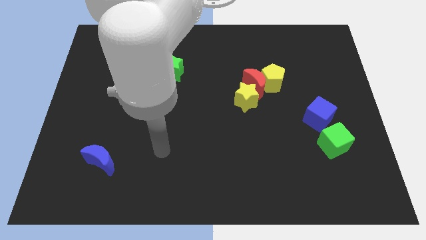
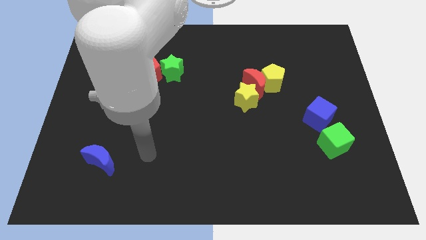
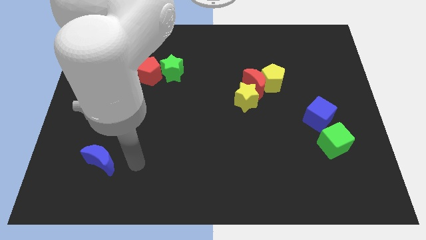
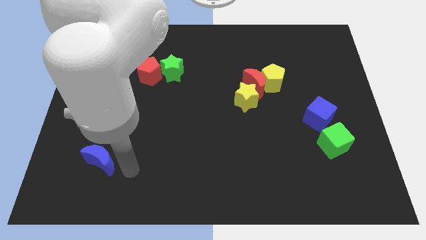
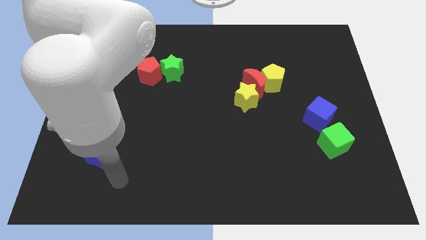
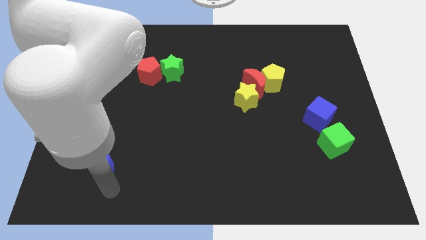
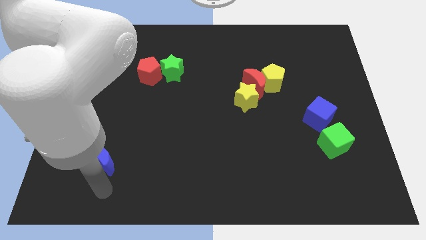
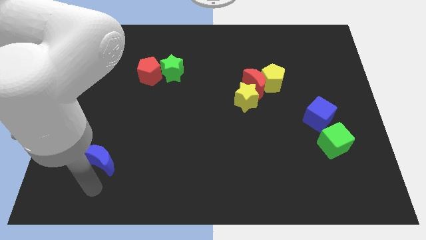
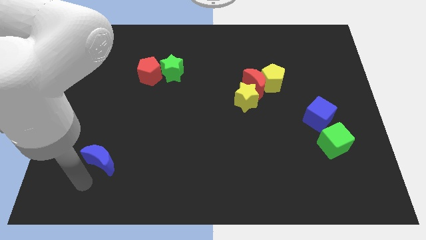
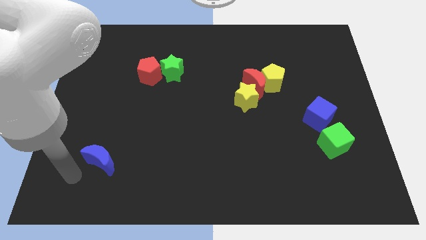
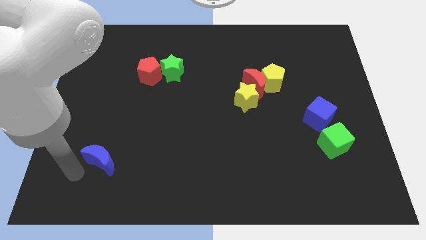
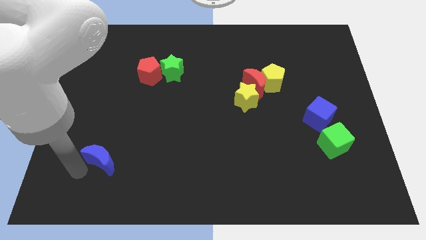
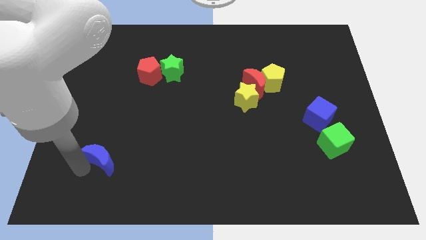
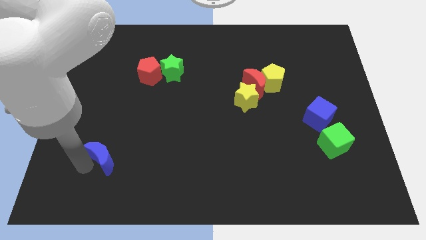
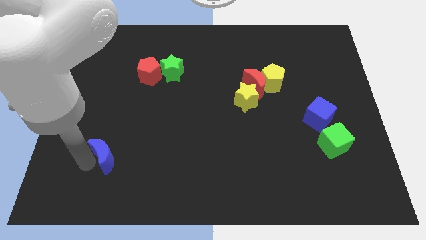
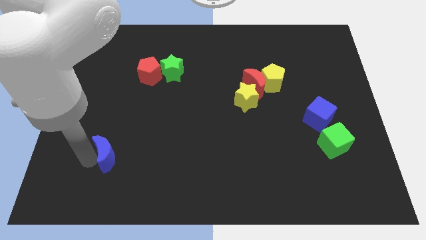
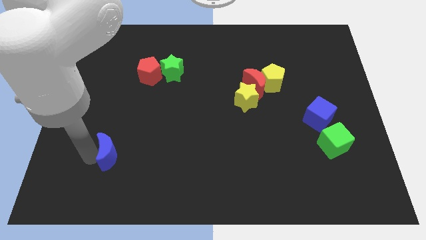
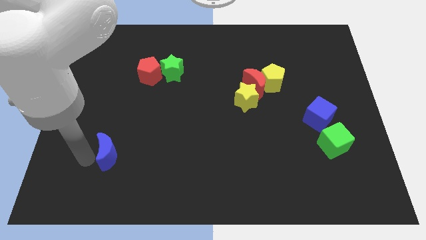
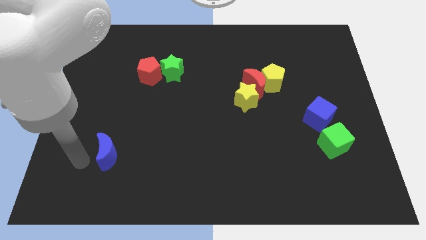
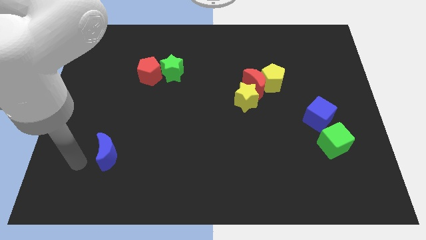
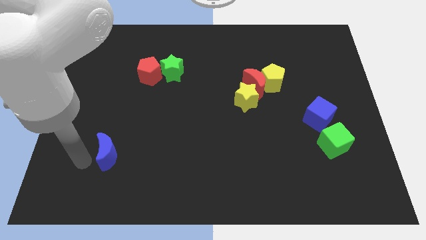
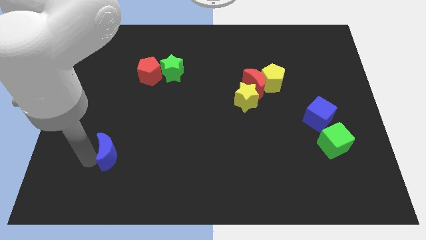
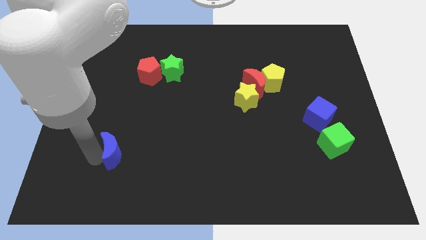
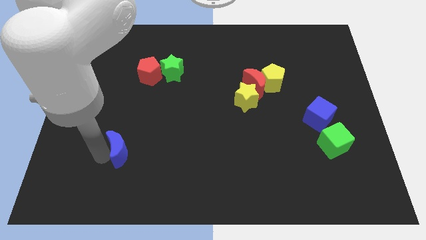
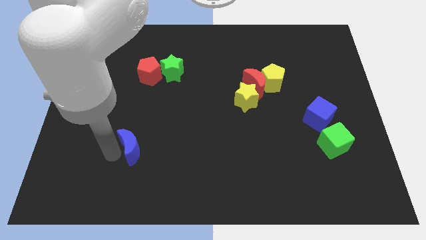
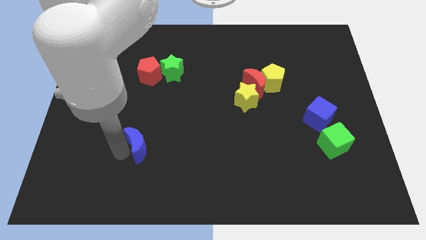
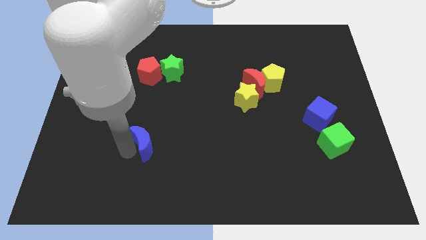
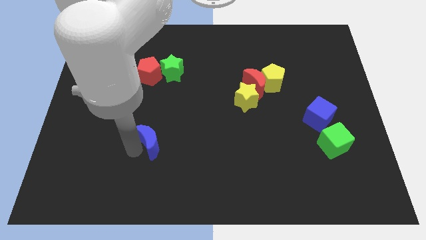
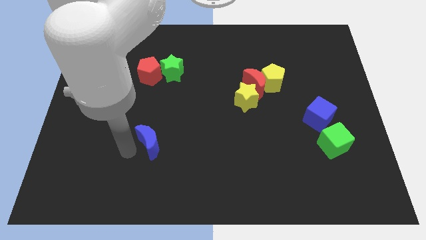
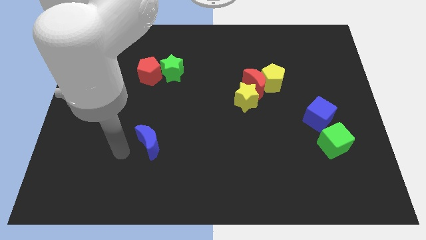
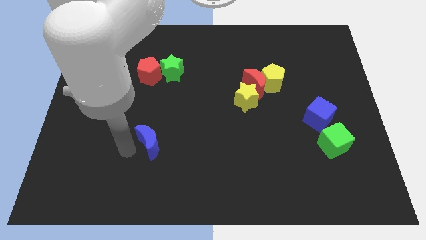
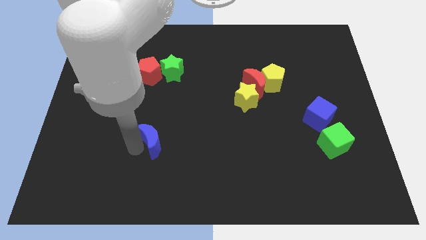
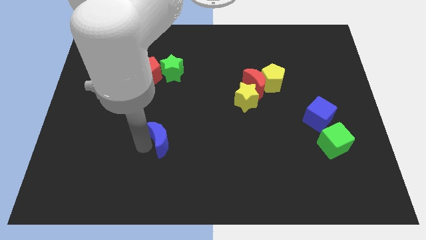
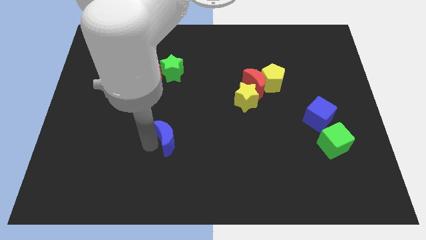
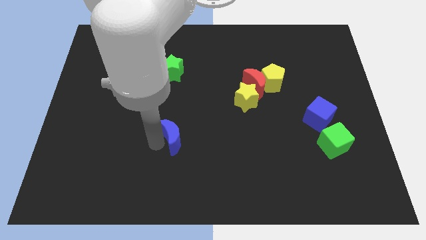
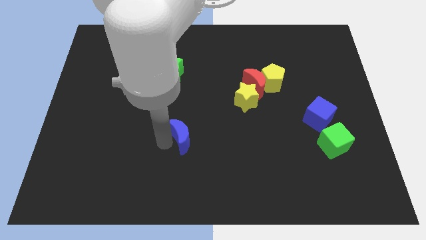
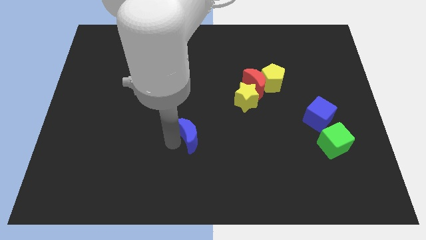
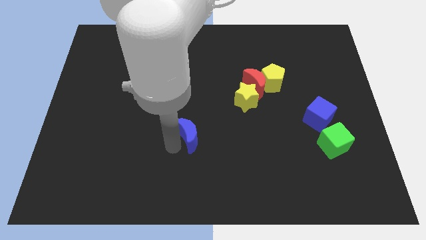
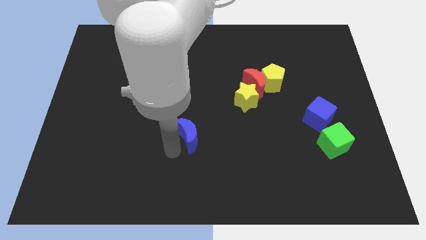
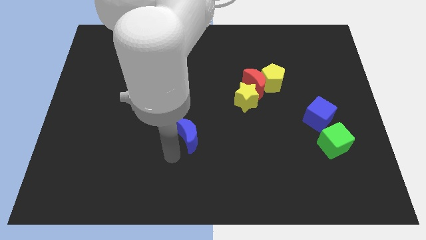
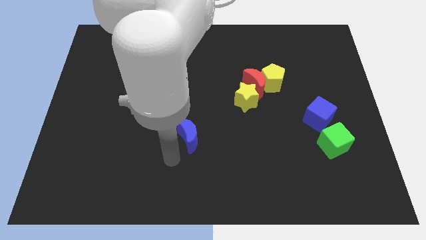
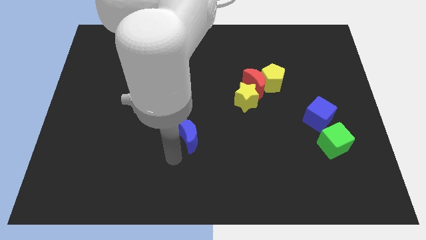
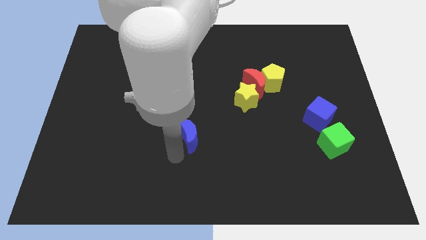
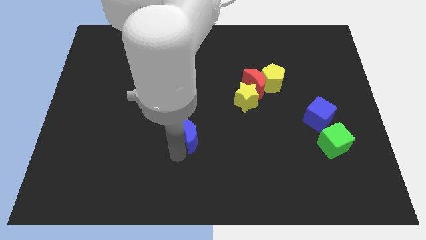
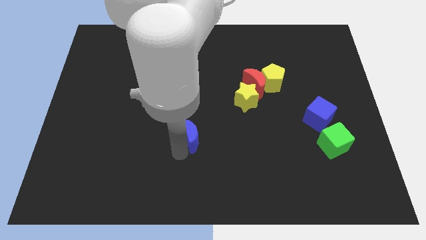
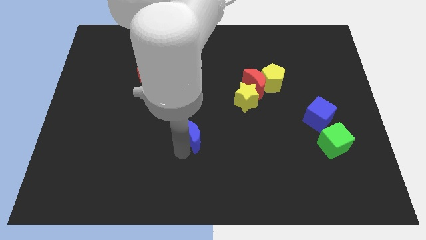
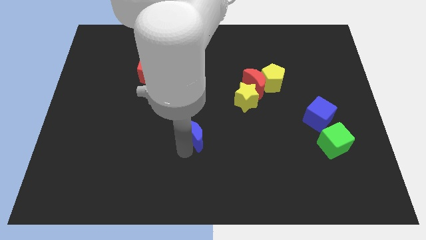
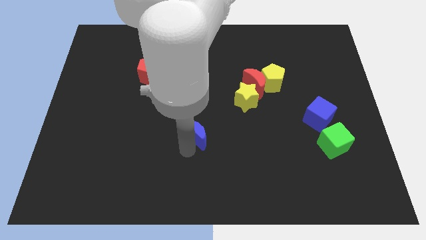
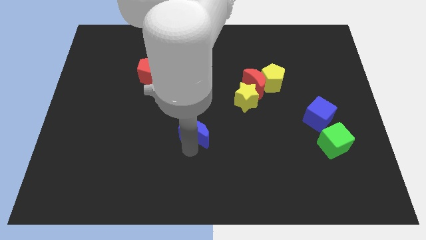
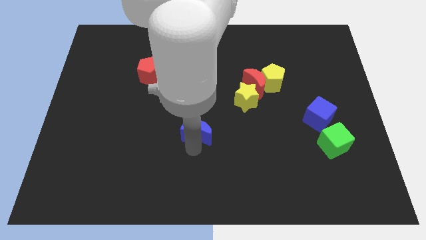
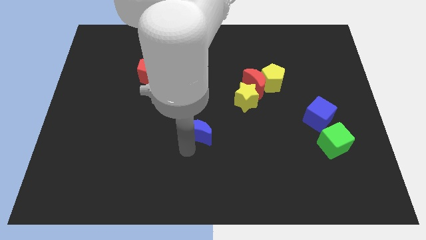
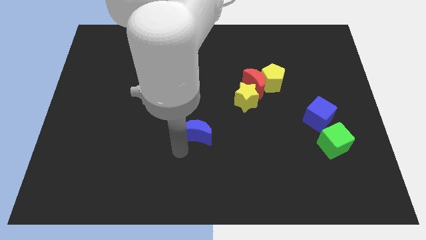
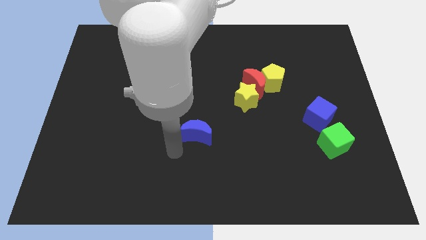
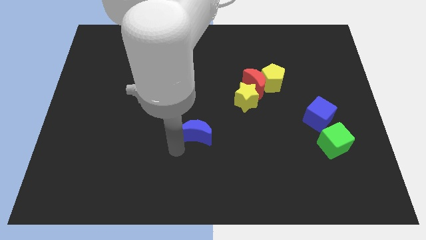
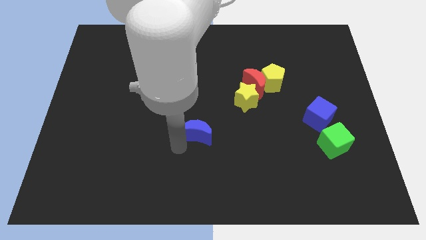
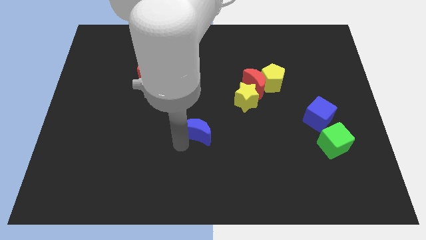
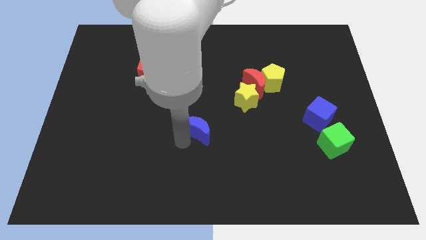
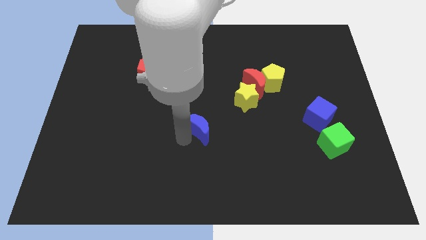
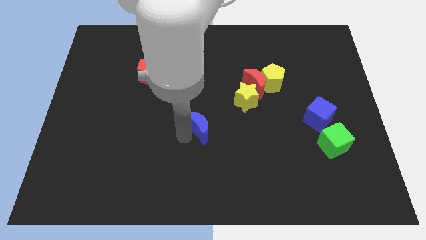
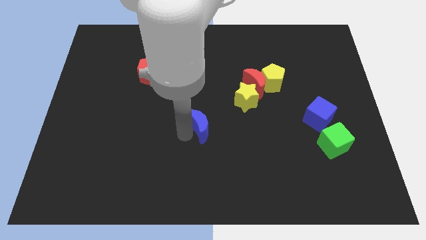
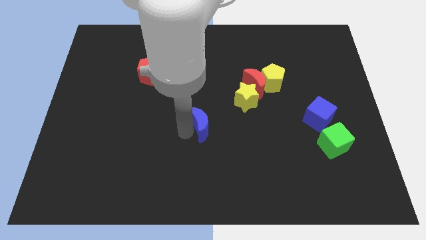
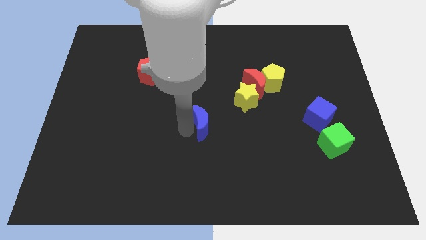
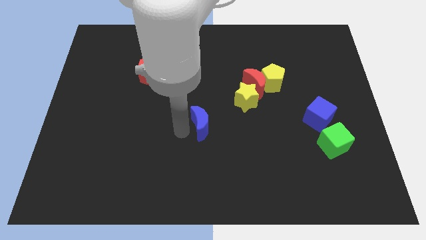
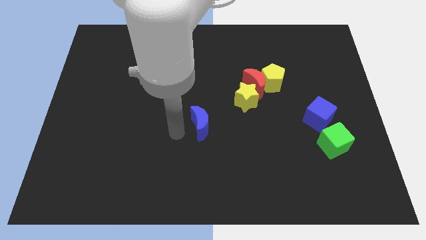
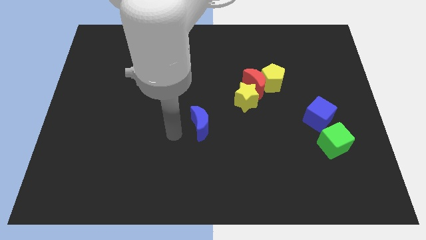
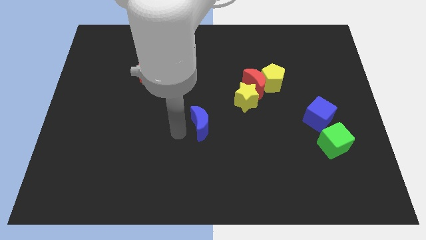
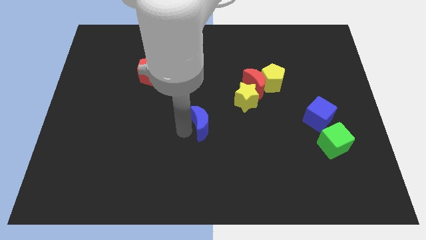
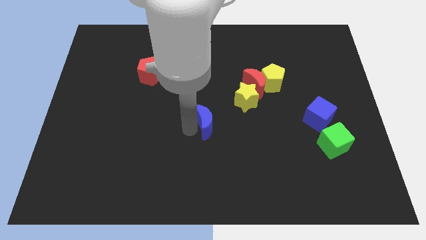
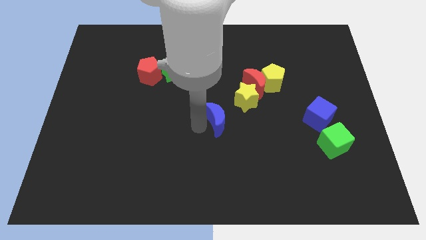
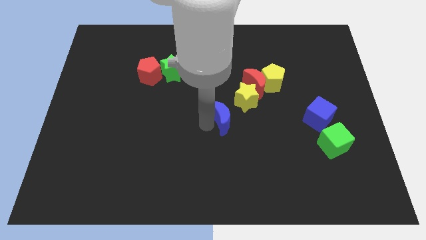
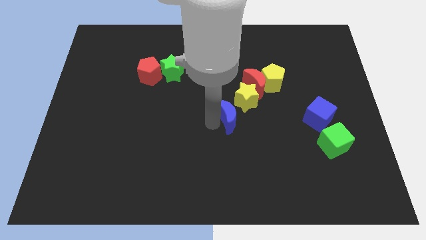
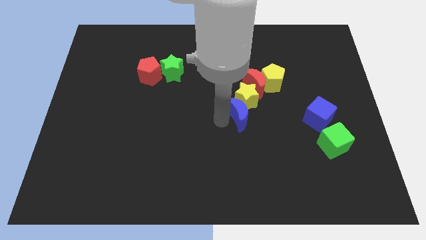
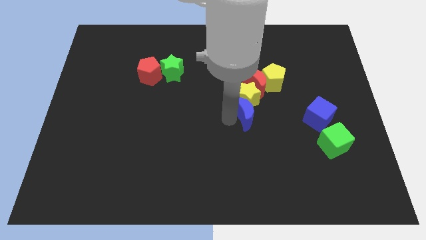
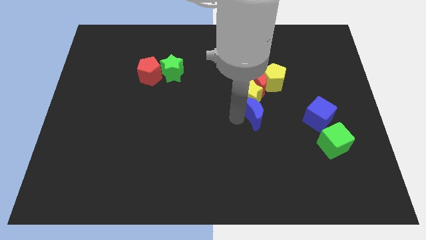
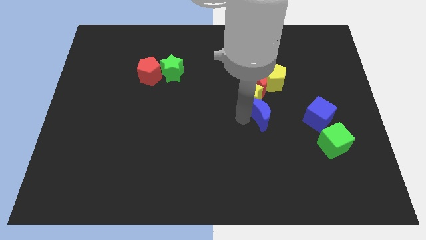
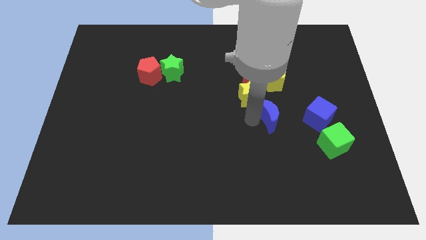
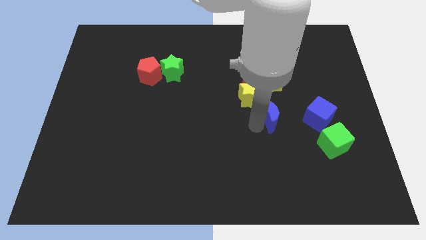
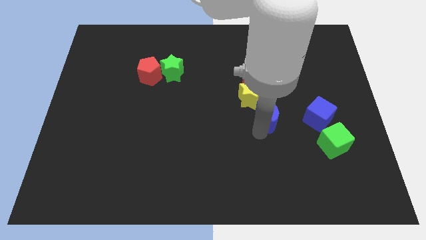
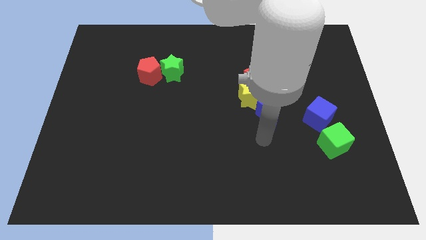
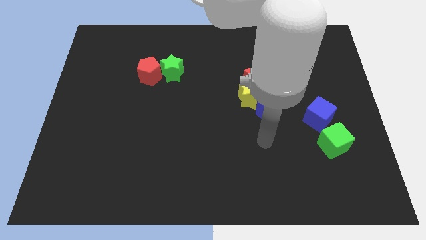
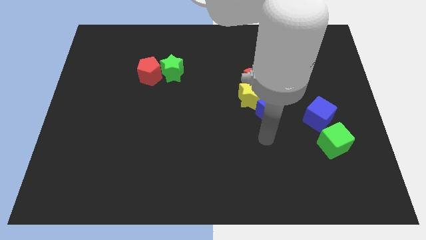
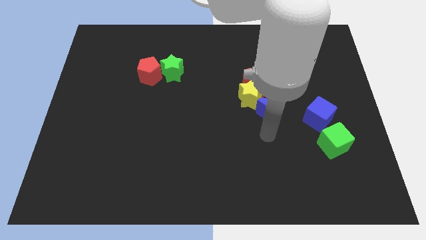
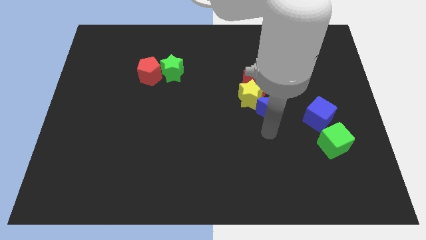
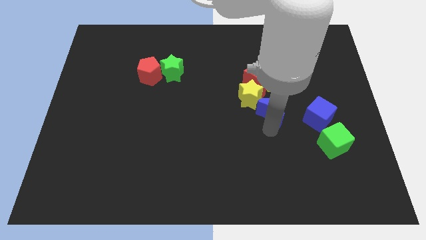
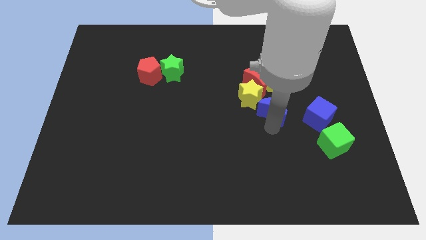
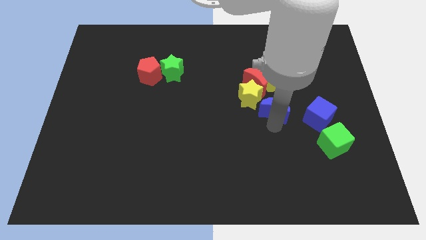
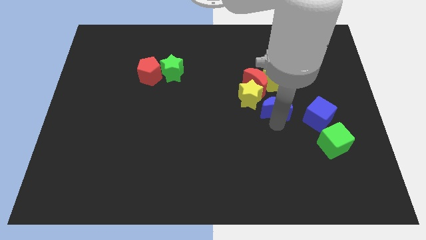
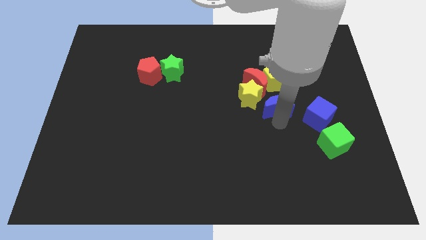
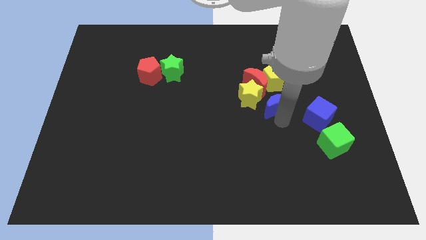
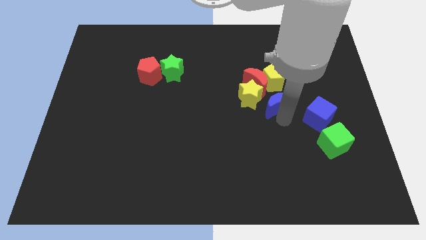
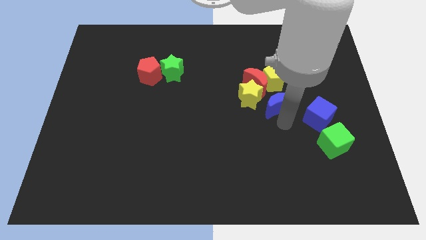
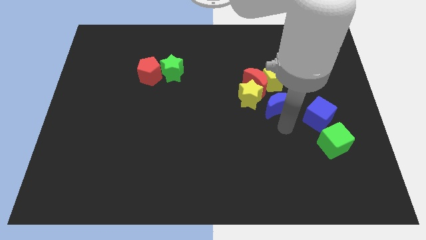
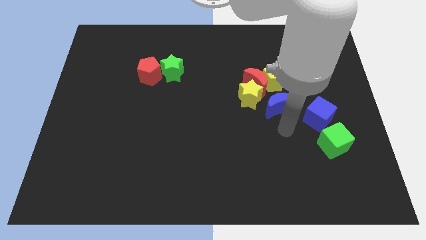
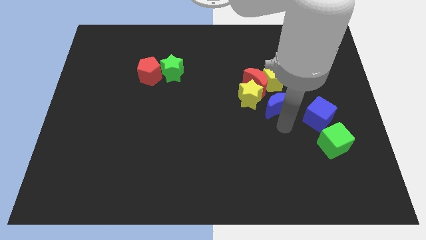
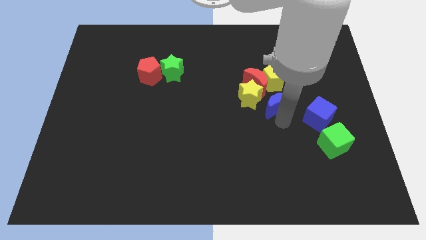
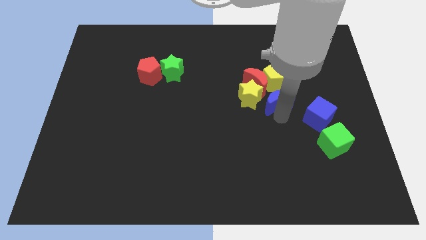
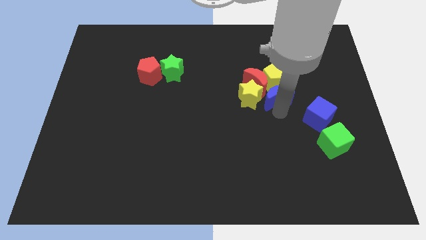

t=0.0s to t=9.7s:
move the blue moon towards the yellow pentagon
